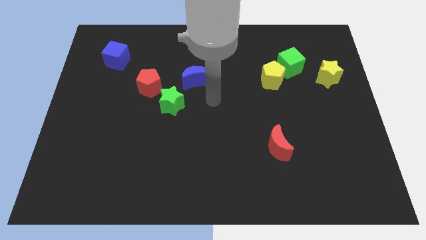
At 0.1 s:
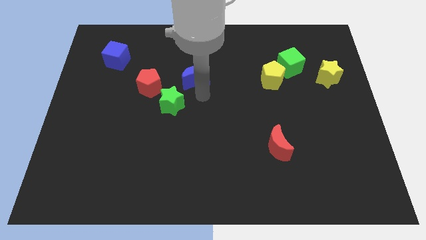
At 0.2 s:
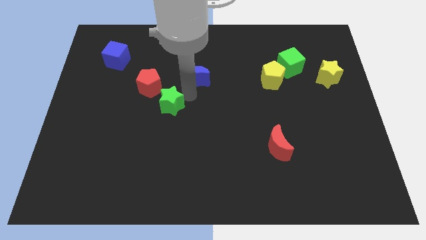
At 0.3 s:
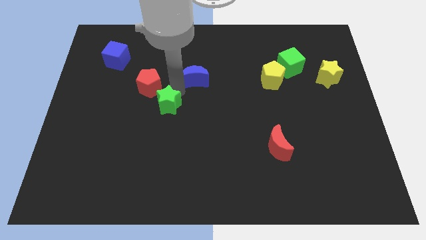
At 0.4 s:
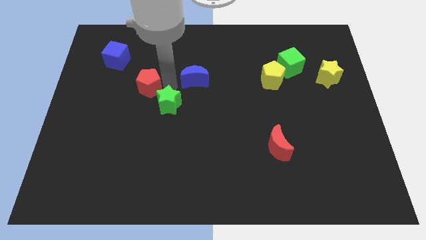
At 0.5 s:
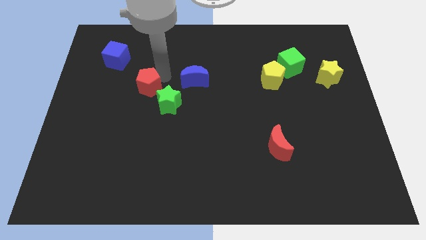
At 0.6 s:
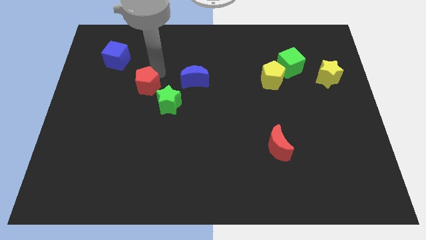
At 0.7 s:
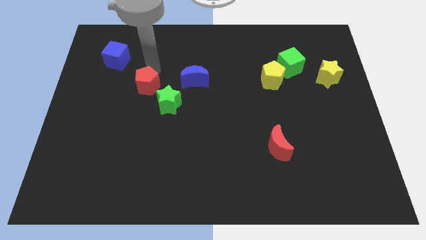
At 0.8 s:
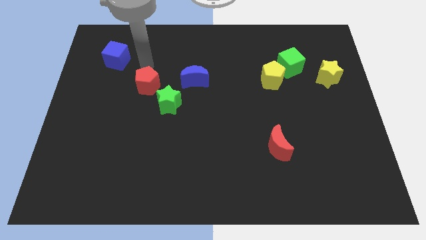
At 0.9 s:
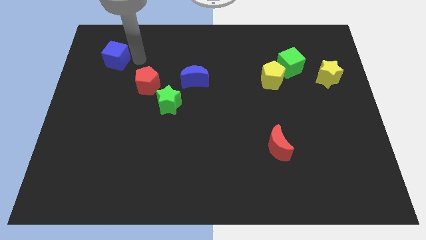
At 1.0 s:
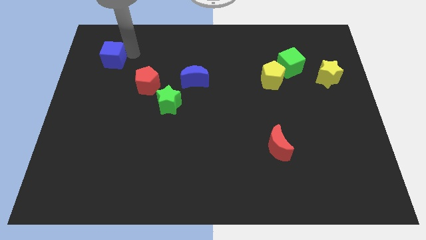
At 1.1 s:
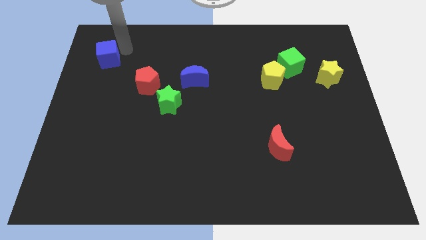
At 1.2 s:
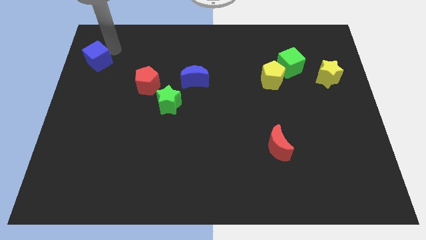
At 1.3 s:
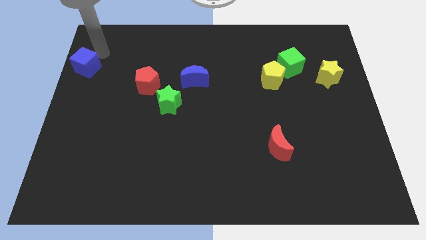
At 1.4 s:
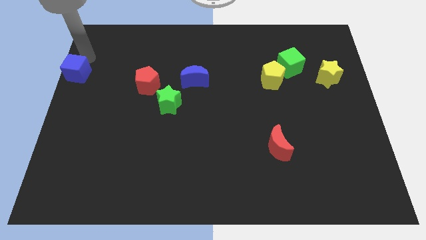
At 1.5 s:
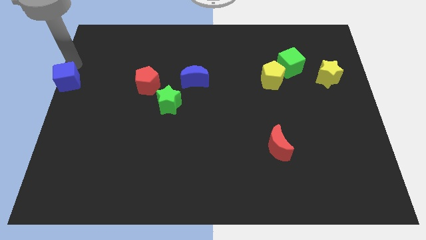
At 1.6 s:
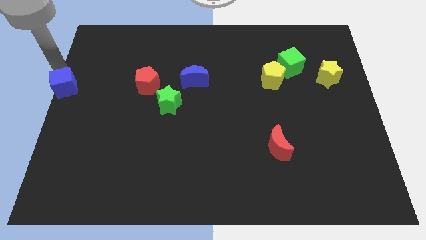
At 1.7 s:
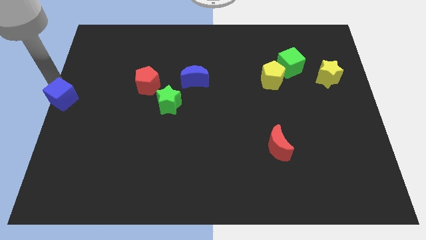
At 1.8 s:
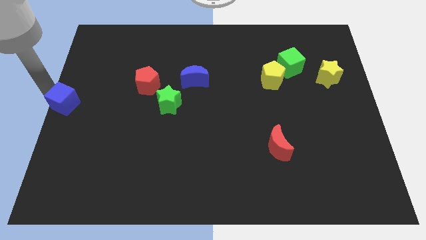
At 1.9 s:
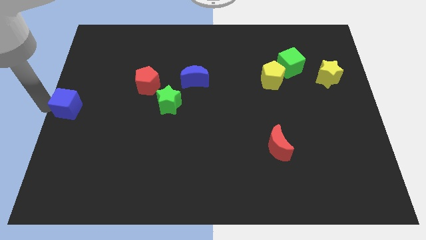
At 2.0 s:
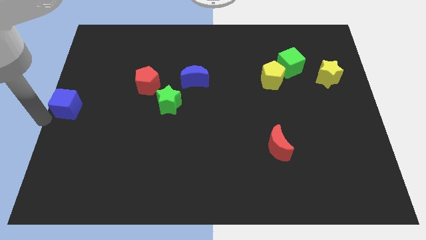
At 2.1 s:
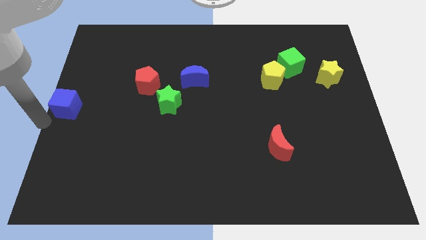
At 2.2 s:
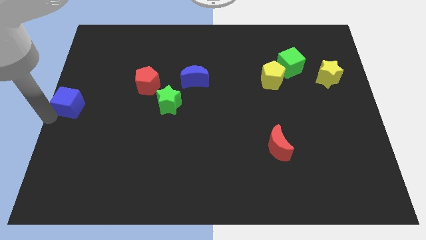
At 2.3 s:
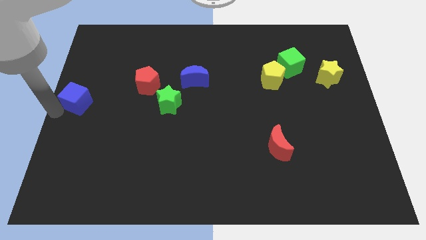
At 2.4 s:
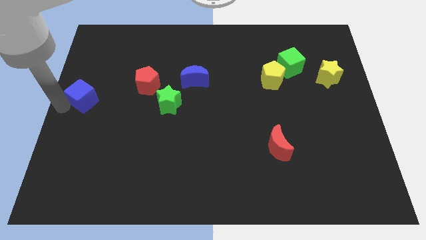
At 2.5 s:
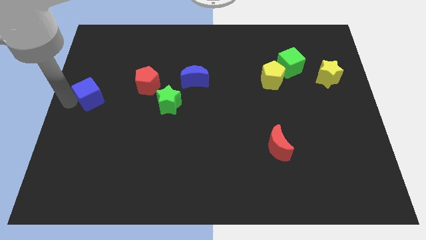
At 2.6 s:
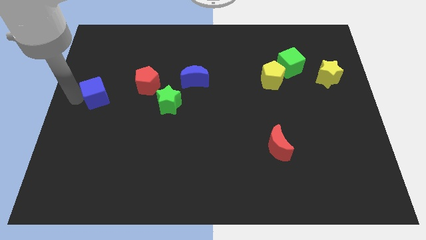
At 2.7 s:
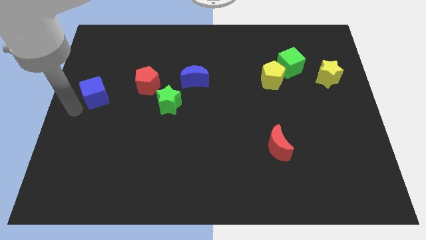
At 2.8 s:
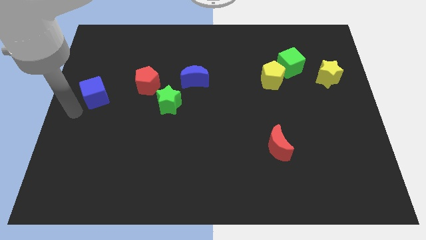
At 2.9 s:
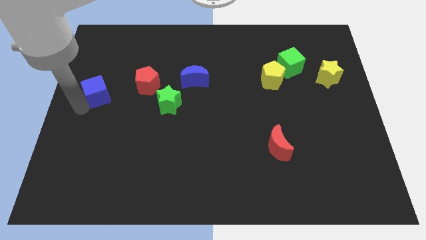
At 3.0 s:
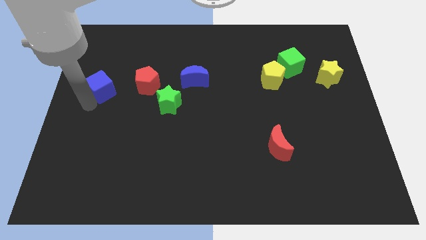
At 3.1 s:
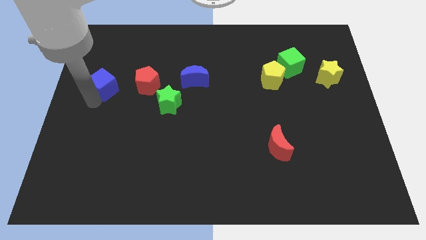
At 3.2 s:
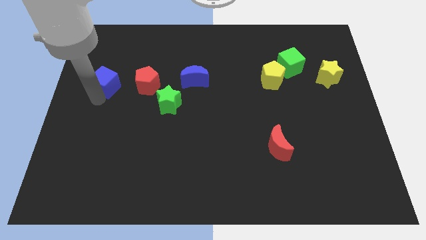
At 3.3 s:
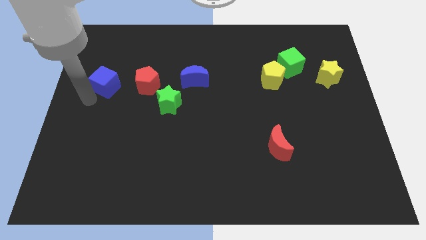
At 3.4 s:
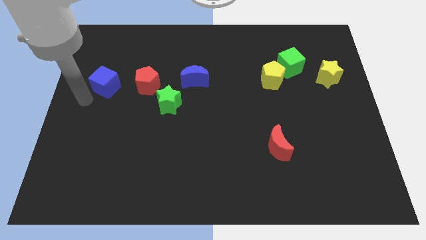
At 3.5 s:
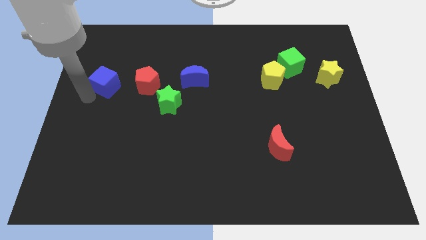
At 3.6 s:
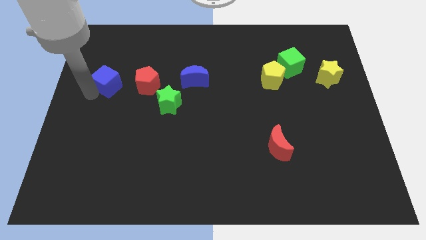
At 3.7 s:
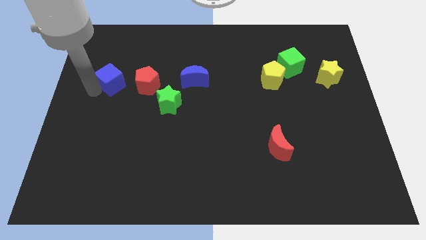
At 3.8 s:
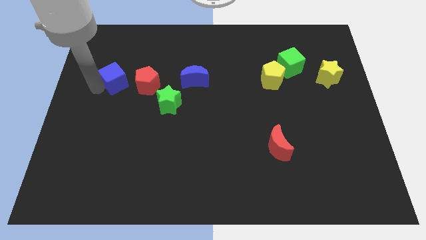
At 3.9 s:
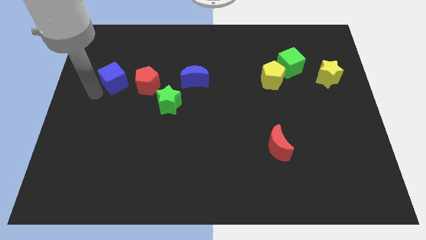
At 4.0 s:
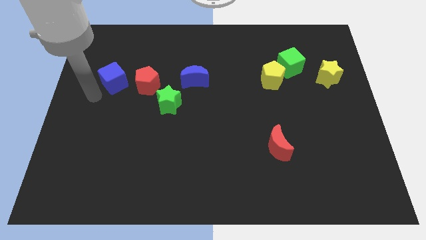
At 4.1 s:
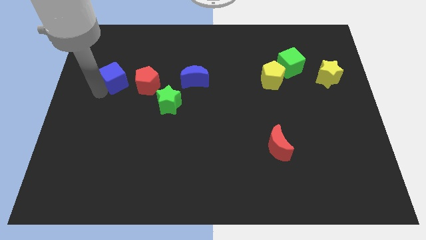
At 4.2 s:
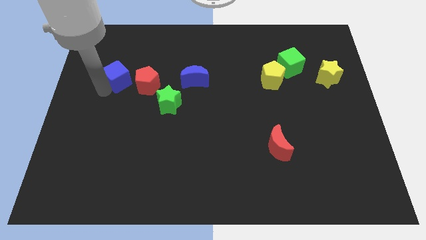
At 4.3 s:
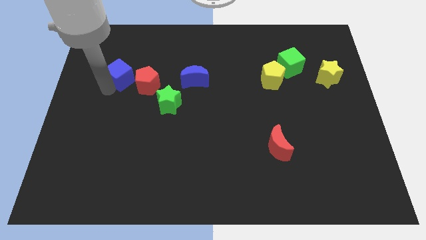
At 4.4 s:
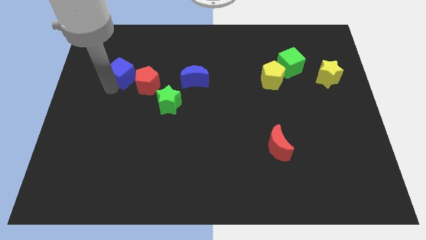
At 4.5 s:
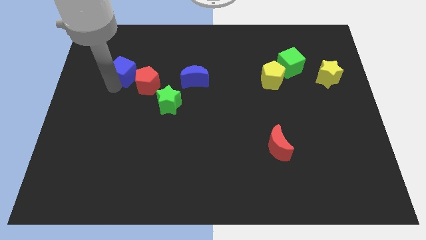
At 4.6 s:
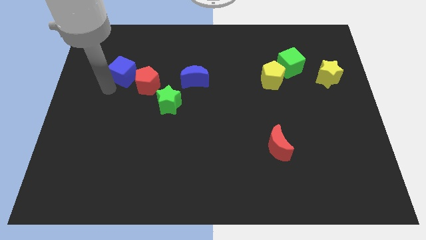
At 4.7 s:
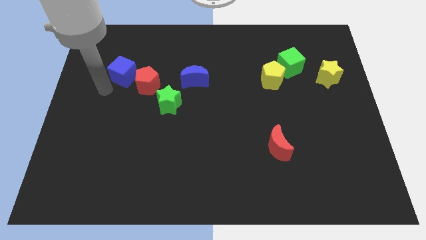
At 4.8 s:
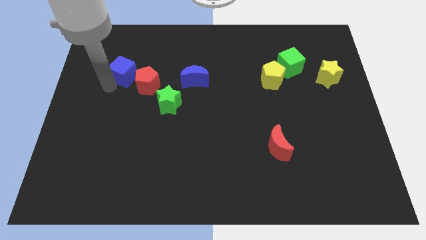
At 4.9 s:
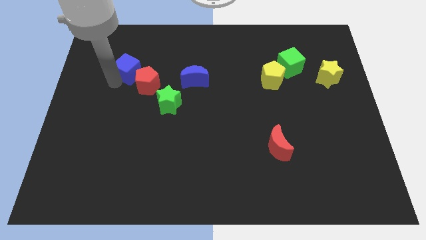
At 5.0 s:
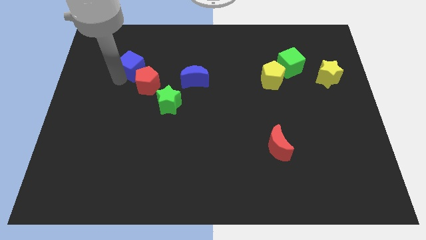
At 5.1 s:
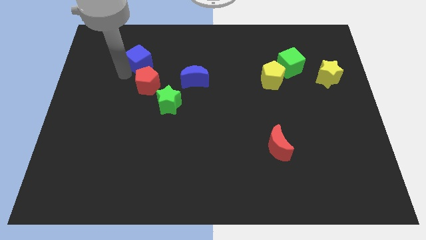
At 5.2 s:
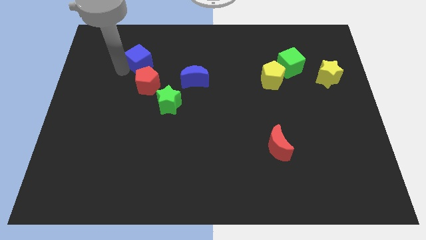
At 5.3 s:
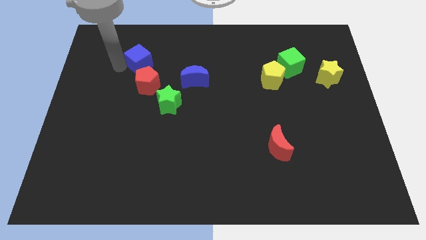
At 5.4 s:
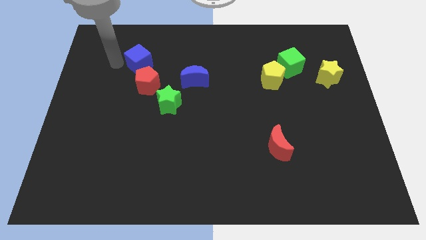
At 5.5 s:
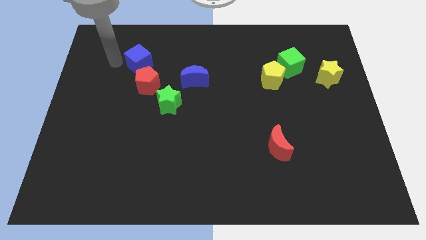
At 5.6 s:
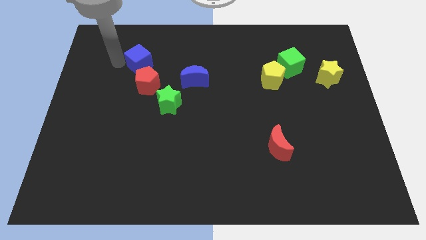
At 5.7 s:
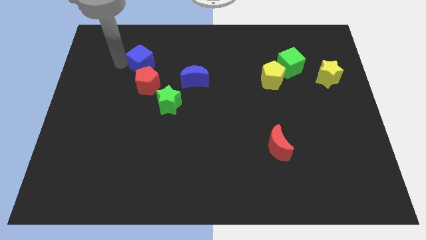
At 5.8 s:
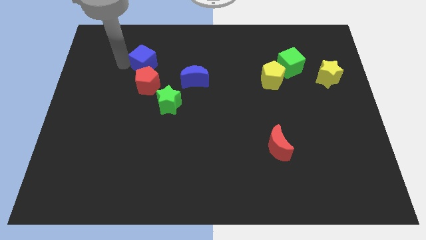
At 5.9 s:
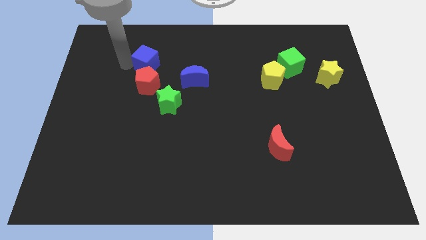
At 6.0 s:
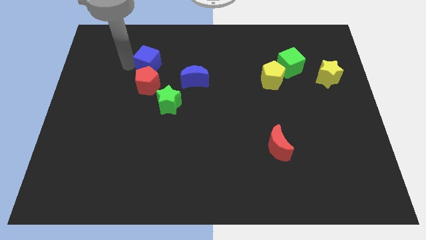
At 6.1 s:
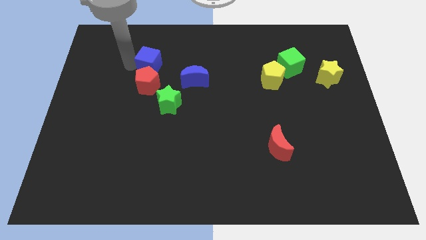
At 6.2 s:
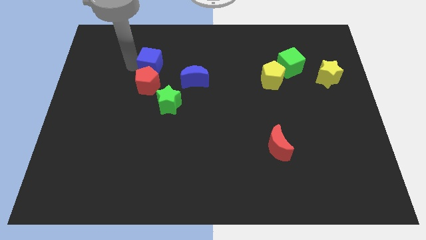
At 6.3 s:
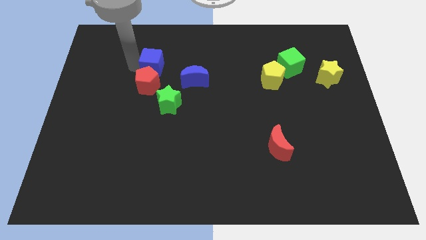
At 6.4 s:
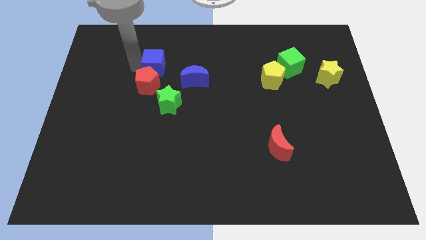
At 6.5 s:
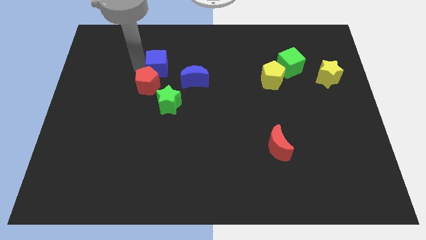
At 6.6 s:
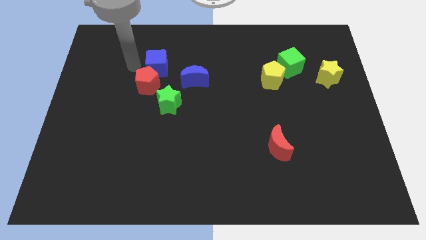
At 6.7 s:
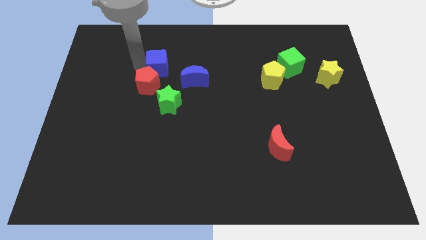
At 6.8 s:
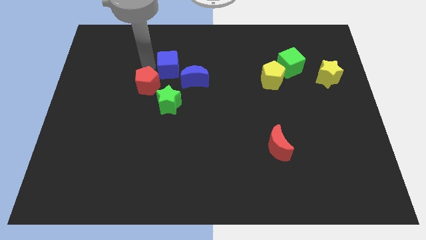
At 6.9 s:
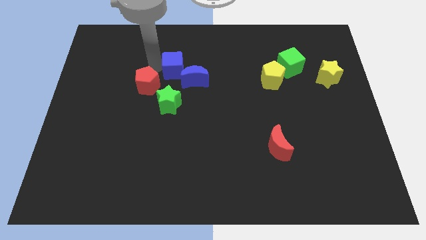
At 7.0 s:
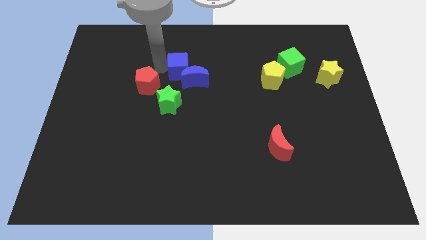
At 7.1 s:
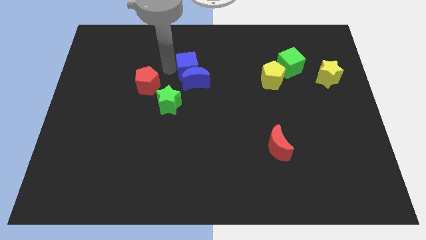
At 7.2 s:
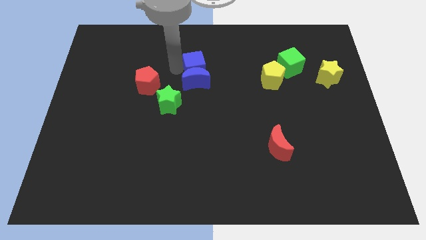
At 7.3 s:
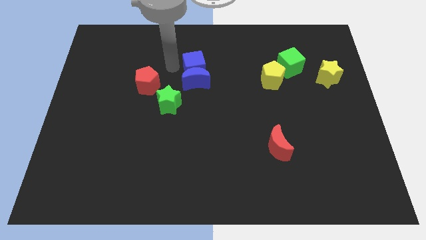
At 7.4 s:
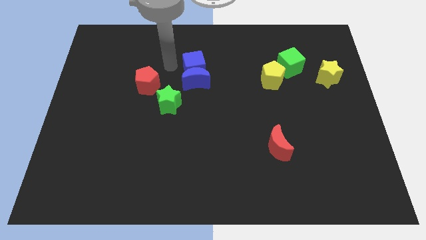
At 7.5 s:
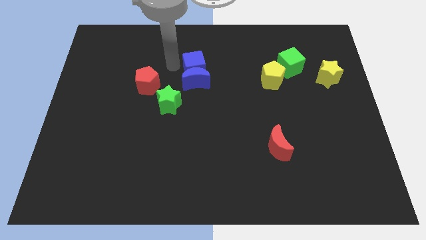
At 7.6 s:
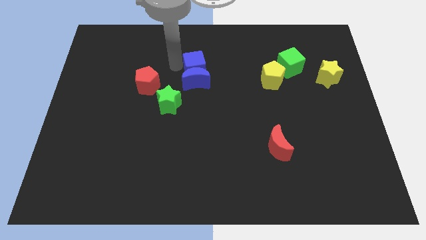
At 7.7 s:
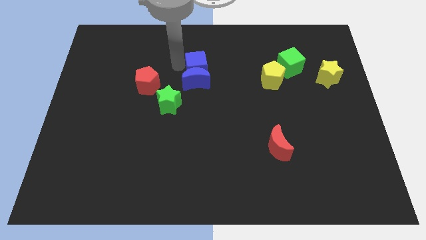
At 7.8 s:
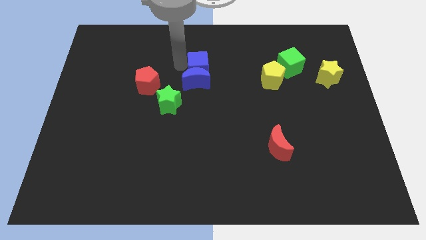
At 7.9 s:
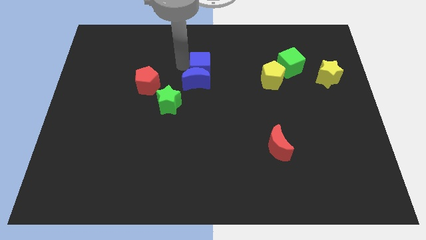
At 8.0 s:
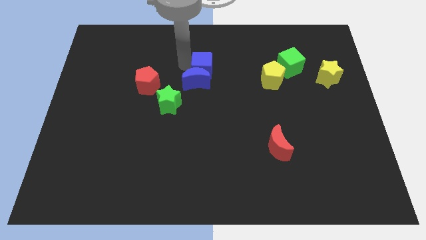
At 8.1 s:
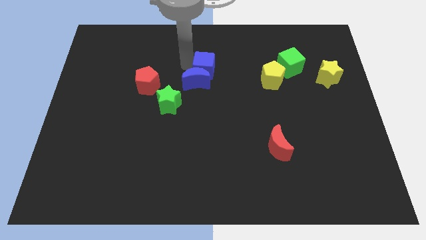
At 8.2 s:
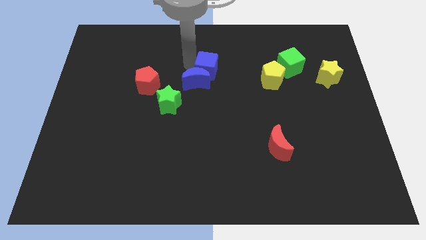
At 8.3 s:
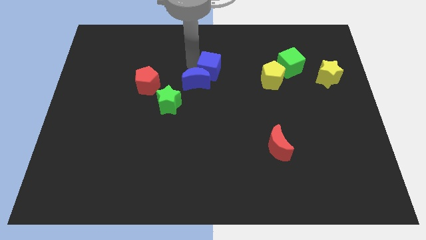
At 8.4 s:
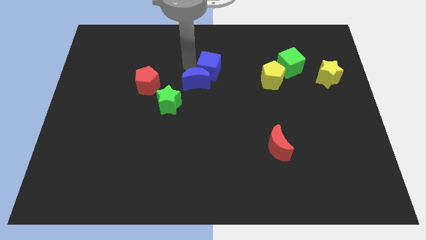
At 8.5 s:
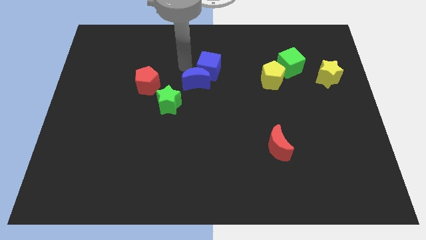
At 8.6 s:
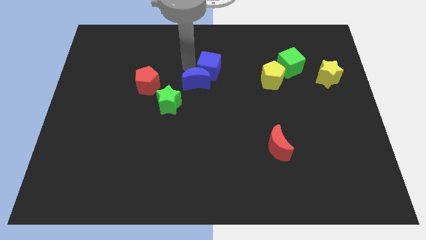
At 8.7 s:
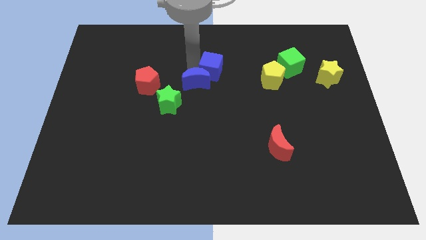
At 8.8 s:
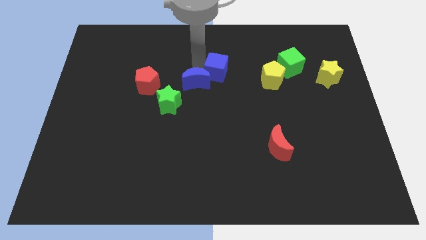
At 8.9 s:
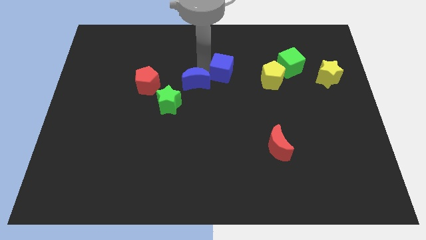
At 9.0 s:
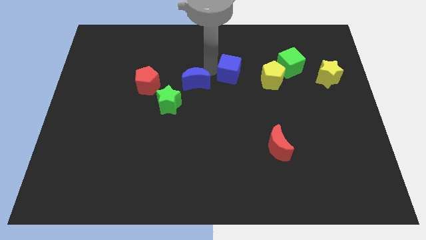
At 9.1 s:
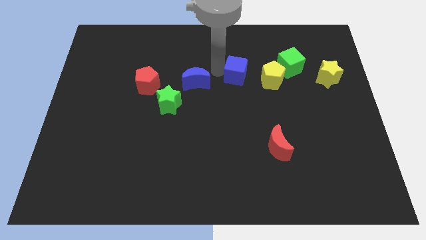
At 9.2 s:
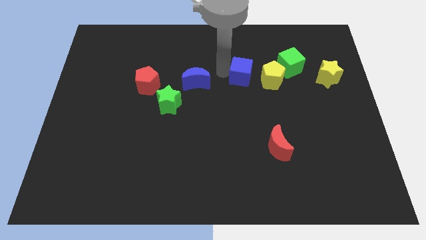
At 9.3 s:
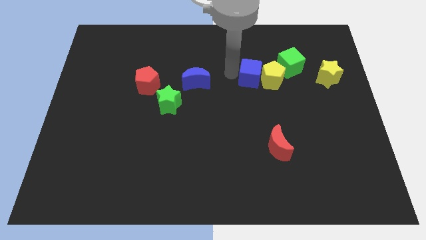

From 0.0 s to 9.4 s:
push the blue cube next to the yellow pentagon
